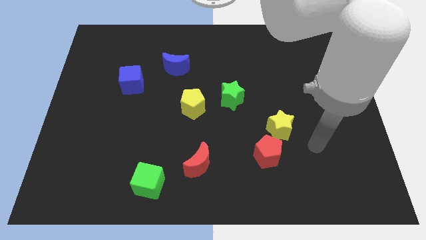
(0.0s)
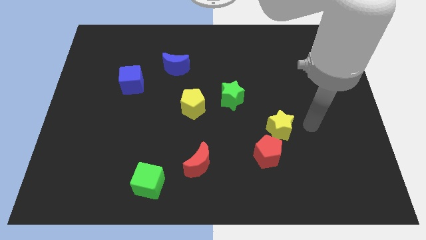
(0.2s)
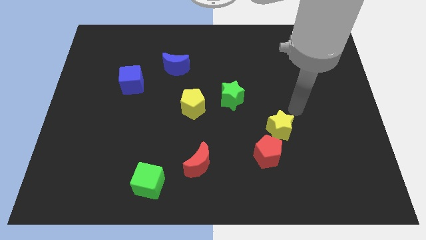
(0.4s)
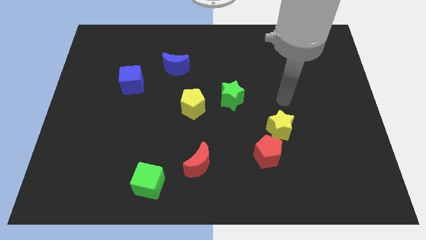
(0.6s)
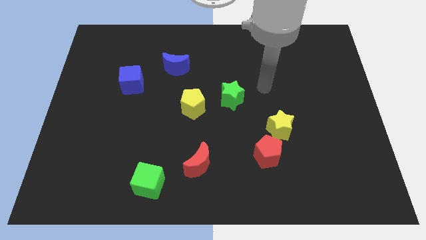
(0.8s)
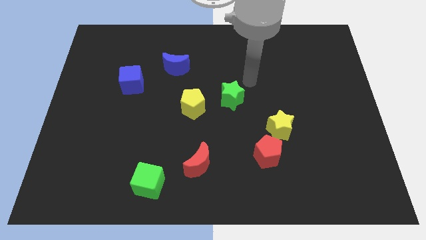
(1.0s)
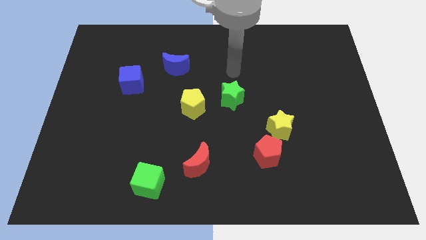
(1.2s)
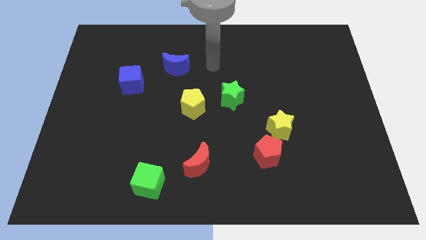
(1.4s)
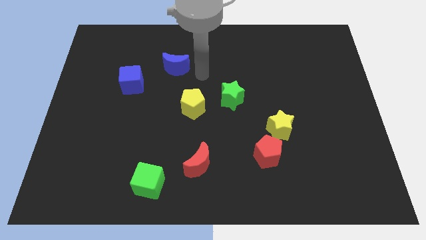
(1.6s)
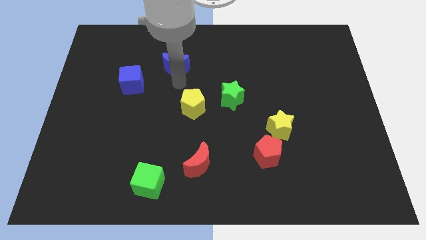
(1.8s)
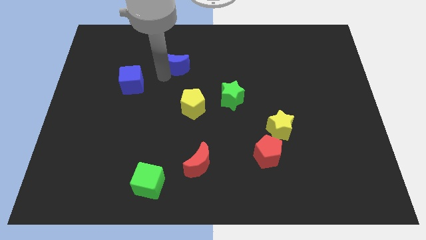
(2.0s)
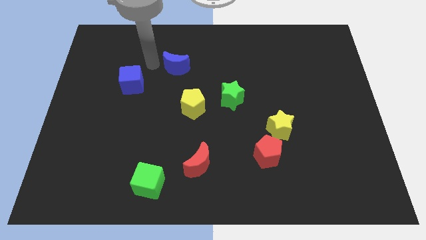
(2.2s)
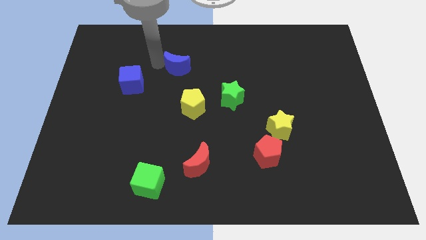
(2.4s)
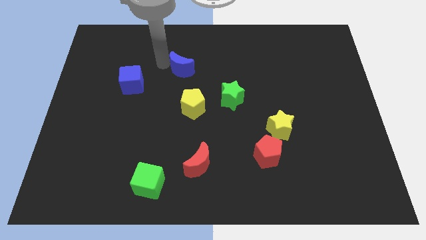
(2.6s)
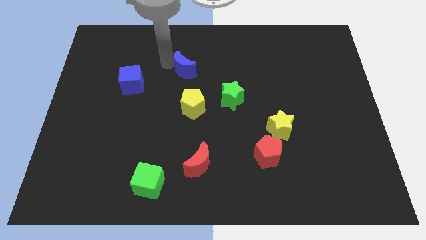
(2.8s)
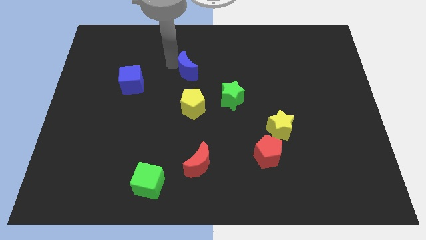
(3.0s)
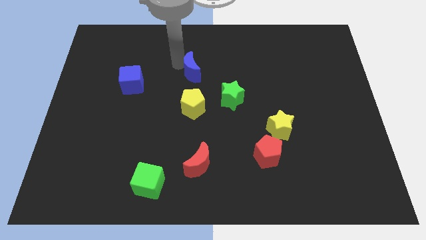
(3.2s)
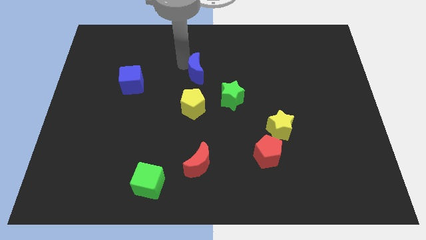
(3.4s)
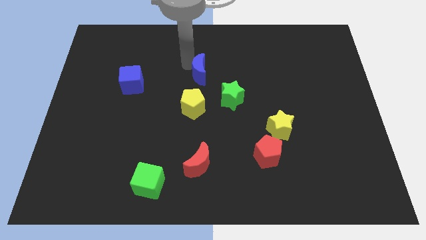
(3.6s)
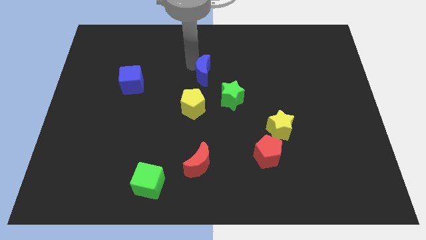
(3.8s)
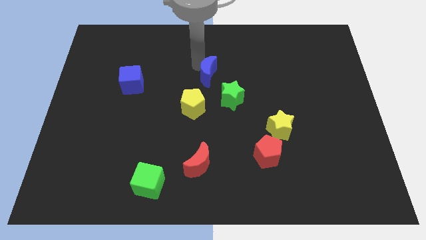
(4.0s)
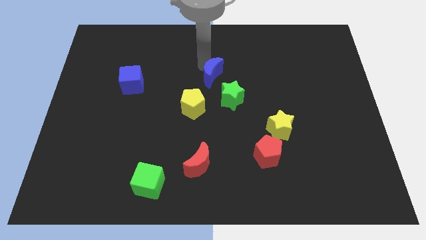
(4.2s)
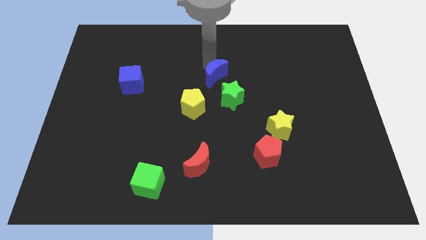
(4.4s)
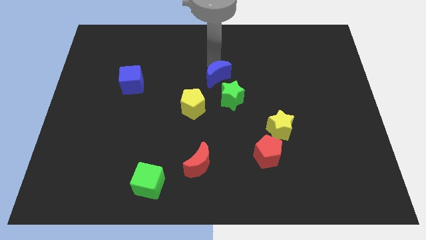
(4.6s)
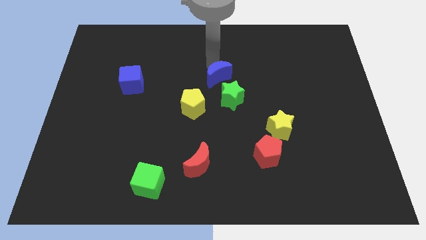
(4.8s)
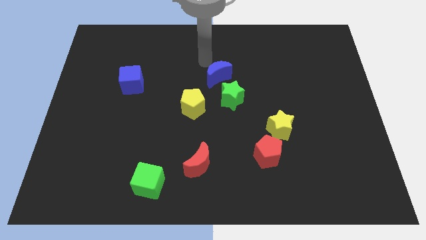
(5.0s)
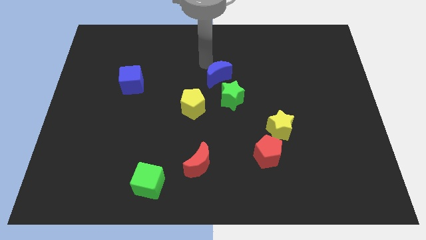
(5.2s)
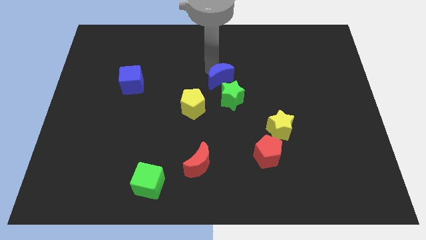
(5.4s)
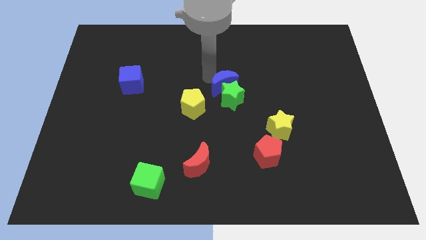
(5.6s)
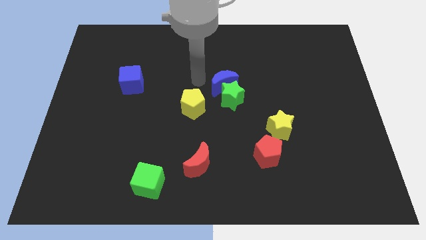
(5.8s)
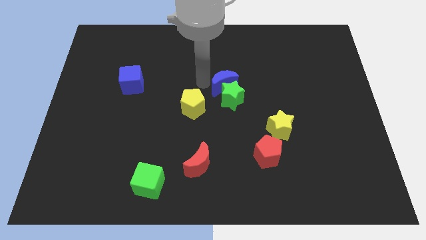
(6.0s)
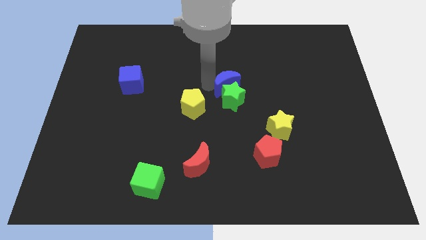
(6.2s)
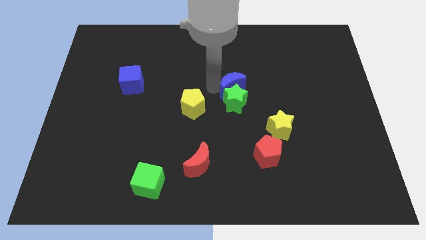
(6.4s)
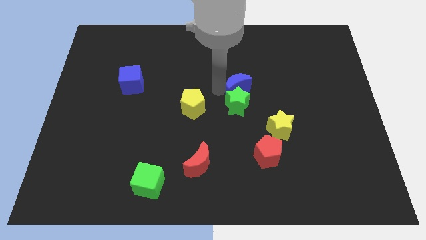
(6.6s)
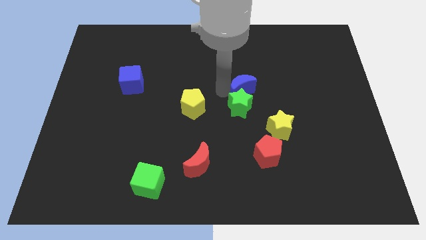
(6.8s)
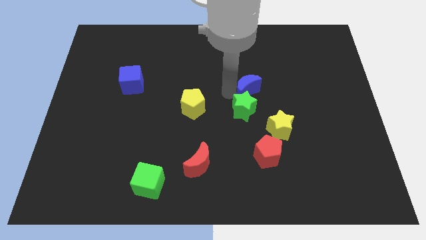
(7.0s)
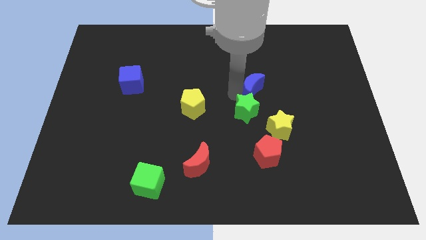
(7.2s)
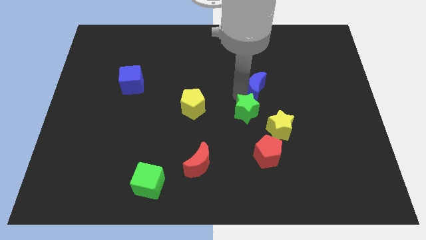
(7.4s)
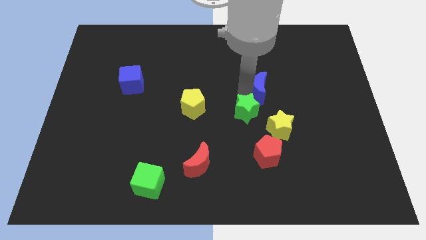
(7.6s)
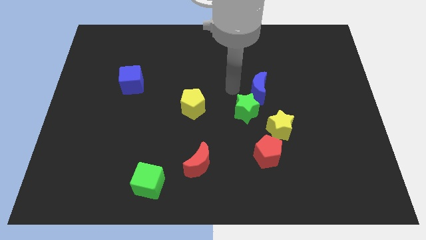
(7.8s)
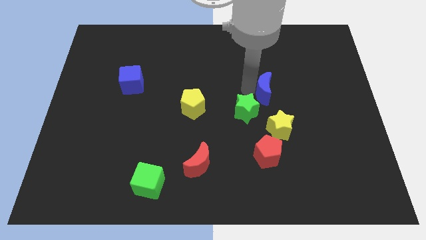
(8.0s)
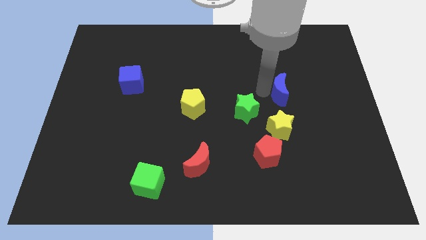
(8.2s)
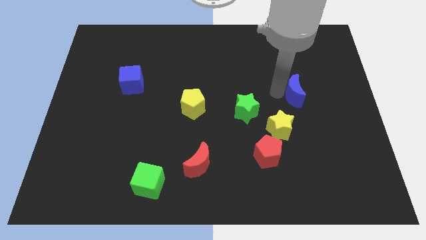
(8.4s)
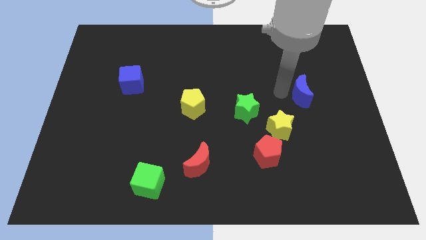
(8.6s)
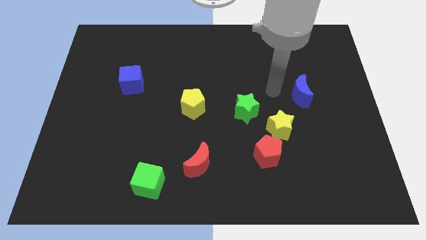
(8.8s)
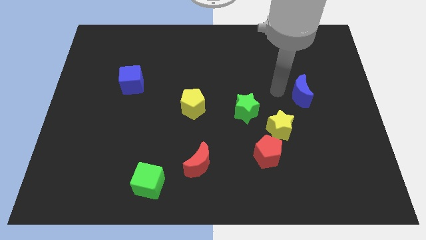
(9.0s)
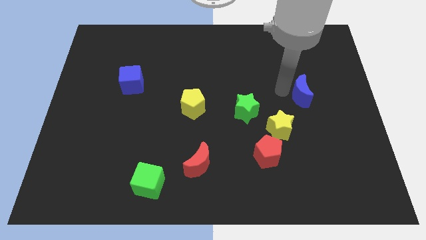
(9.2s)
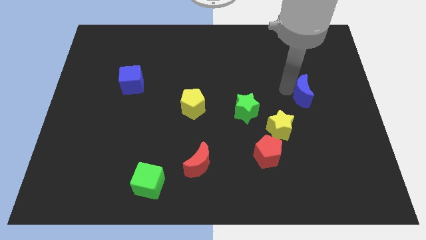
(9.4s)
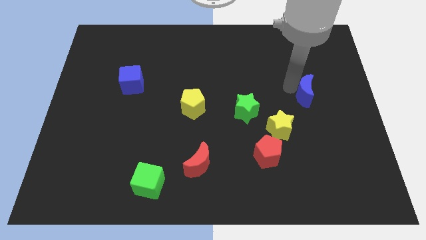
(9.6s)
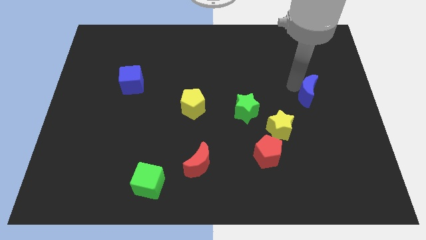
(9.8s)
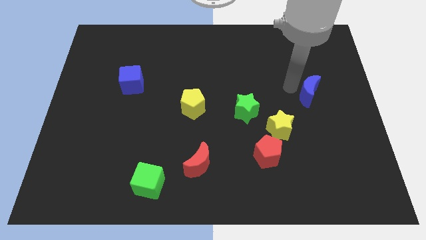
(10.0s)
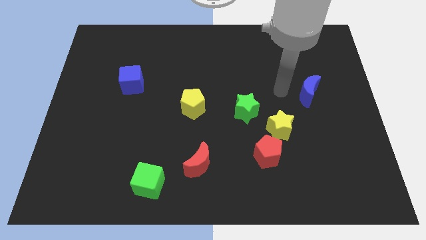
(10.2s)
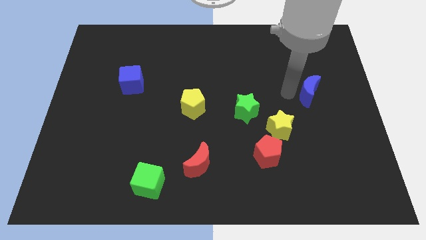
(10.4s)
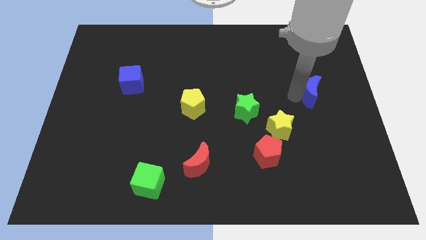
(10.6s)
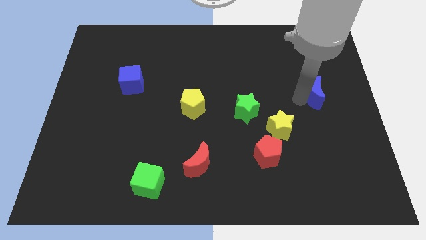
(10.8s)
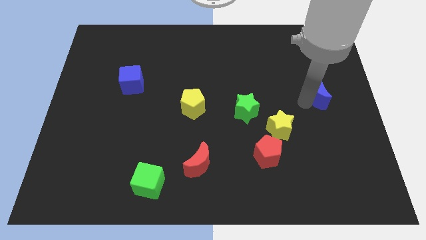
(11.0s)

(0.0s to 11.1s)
slide the blue moon to the right side of the board
